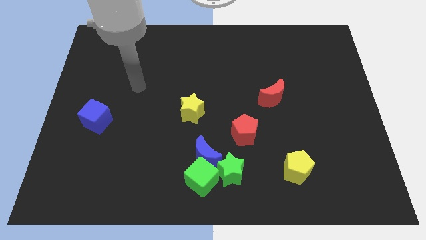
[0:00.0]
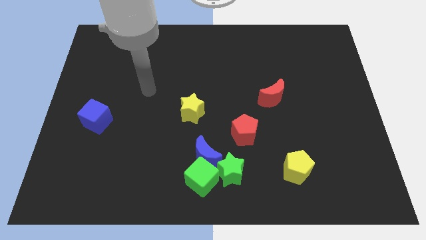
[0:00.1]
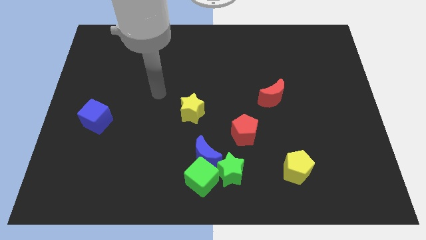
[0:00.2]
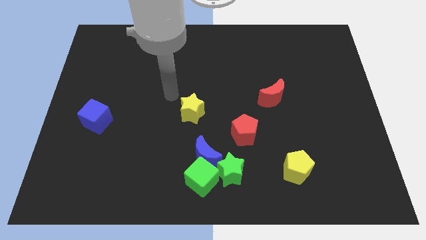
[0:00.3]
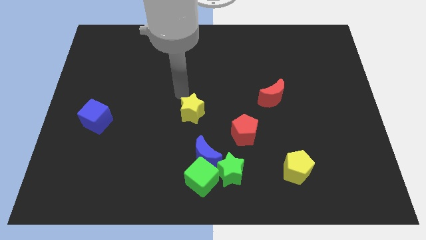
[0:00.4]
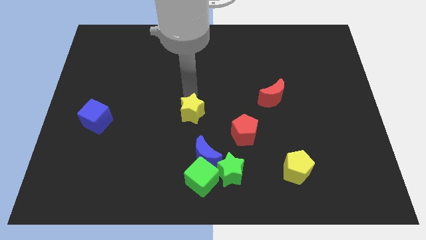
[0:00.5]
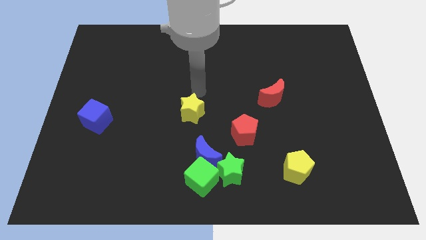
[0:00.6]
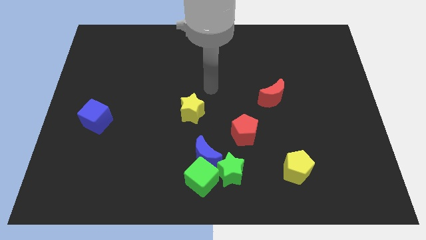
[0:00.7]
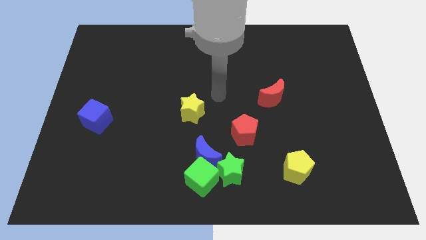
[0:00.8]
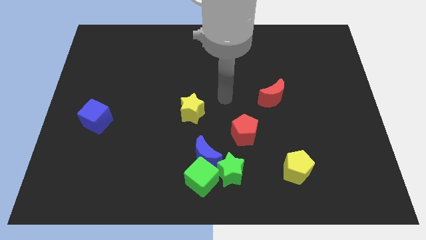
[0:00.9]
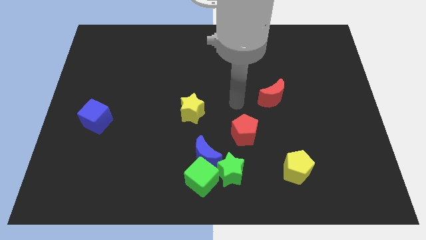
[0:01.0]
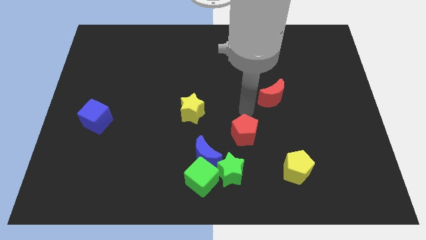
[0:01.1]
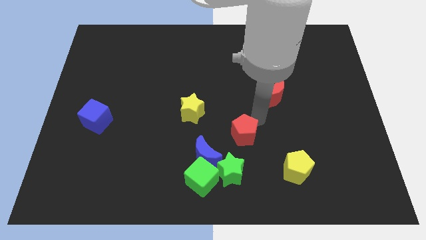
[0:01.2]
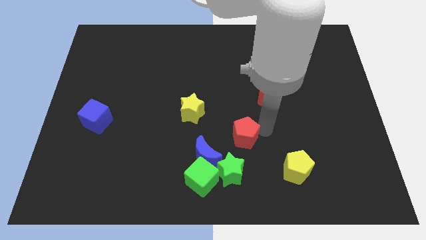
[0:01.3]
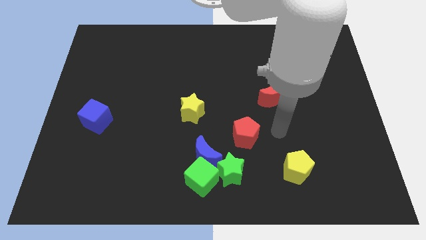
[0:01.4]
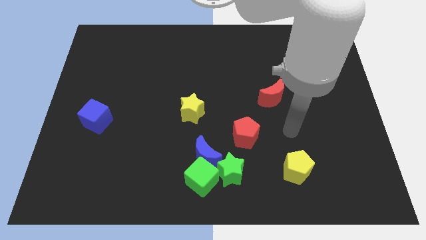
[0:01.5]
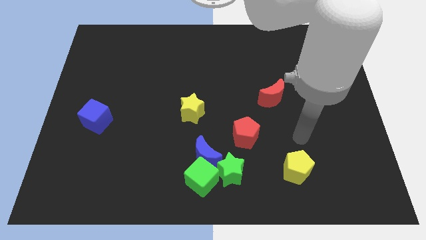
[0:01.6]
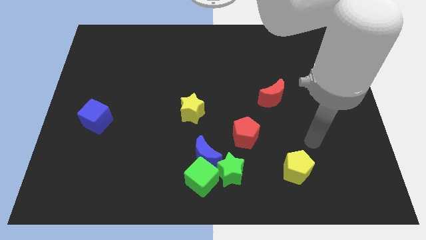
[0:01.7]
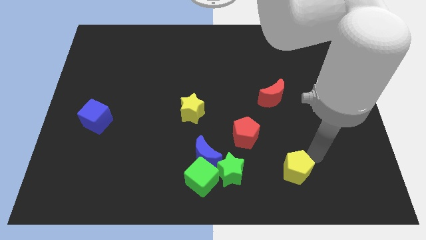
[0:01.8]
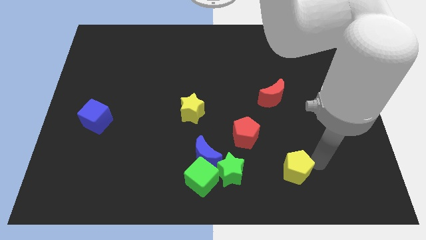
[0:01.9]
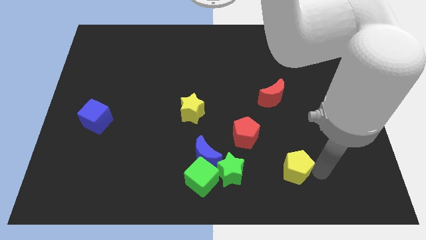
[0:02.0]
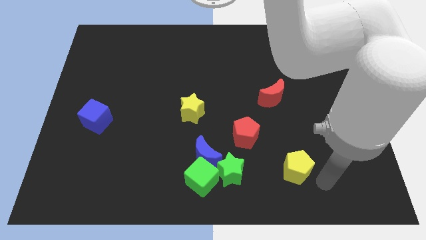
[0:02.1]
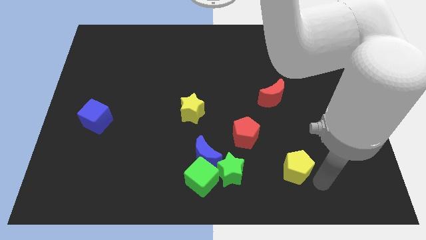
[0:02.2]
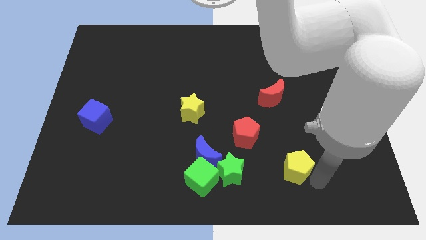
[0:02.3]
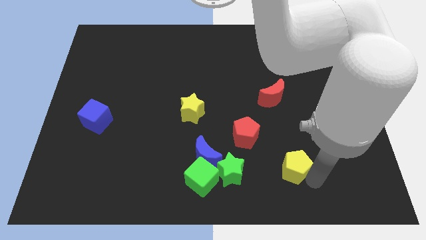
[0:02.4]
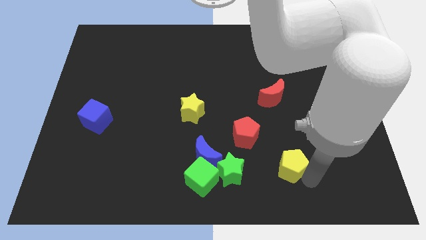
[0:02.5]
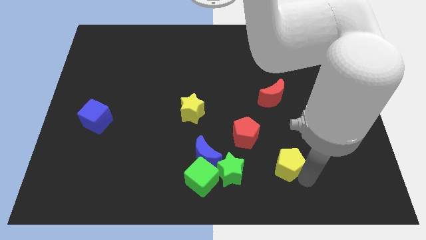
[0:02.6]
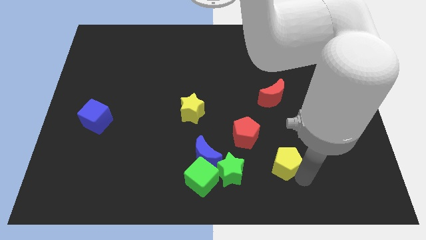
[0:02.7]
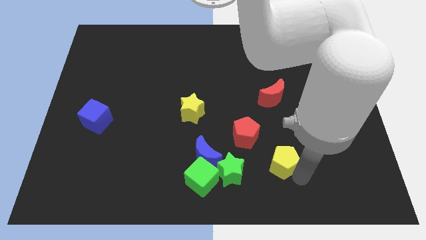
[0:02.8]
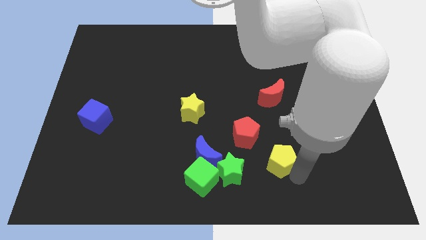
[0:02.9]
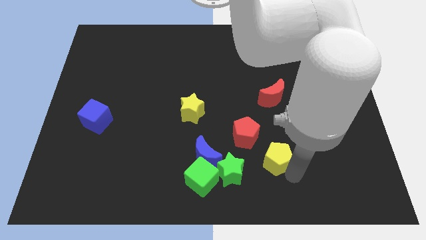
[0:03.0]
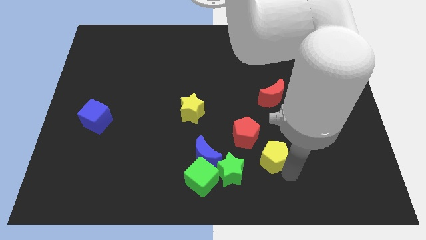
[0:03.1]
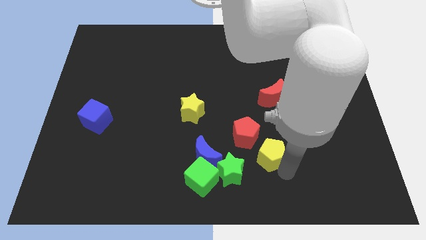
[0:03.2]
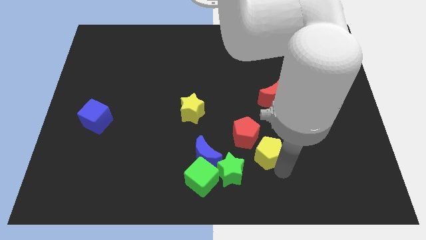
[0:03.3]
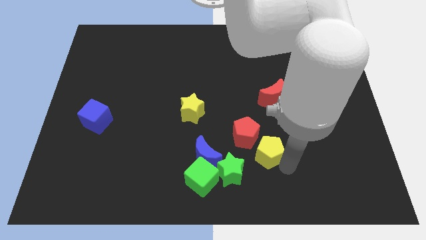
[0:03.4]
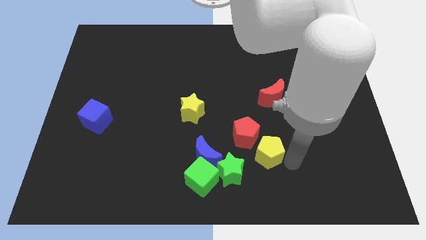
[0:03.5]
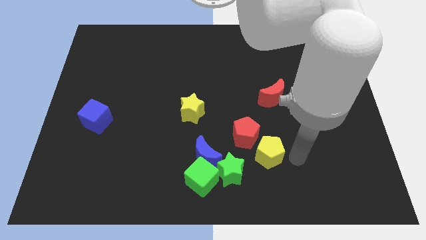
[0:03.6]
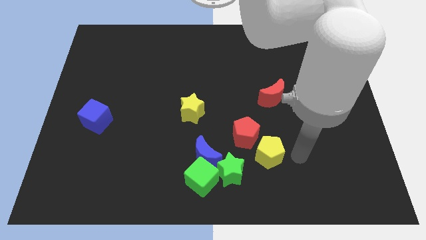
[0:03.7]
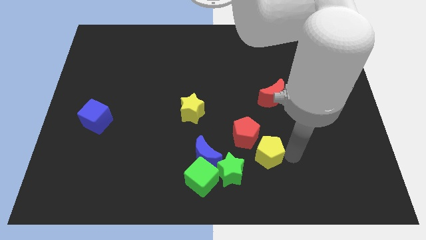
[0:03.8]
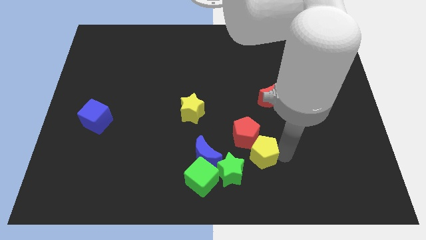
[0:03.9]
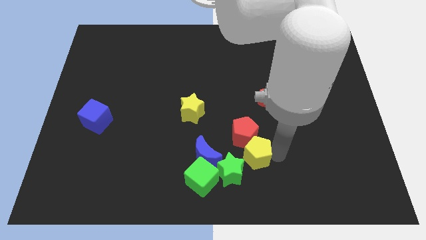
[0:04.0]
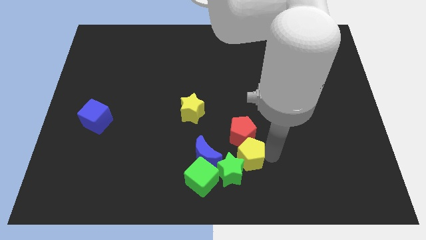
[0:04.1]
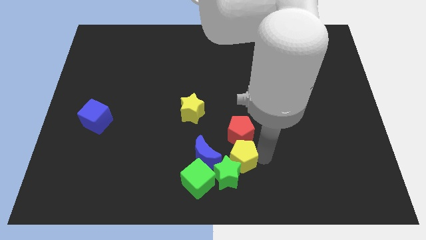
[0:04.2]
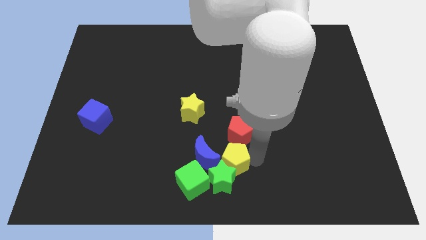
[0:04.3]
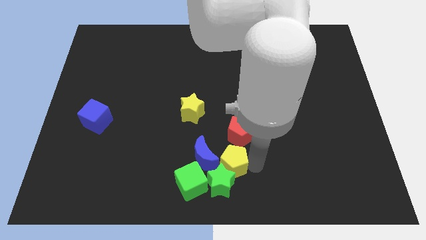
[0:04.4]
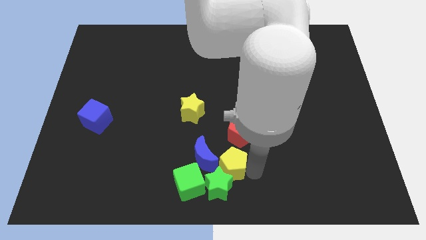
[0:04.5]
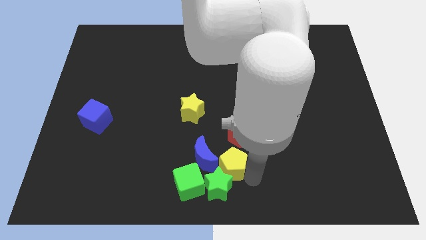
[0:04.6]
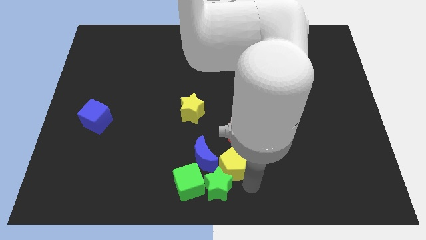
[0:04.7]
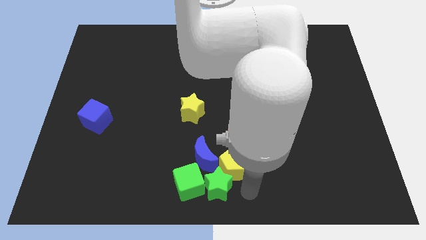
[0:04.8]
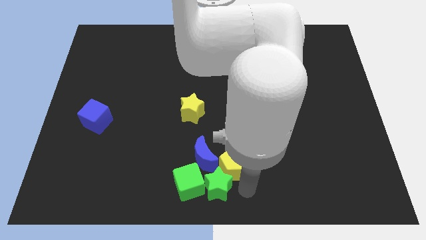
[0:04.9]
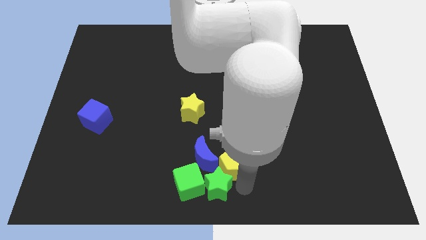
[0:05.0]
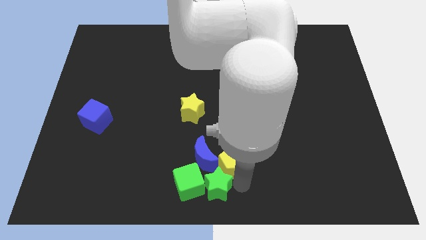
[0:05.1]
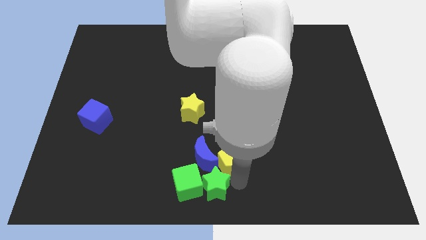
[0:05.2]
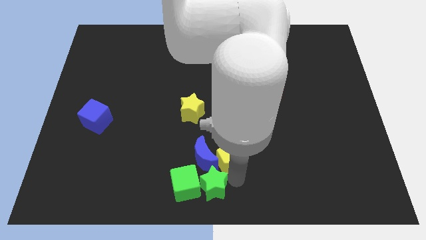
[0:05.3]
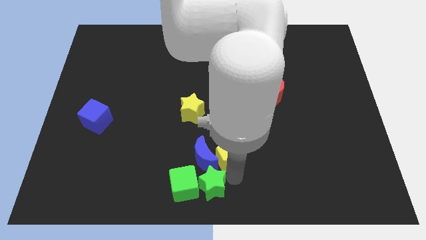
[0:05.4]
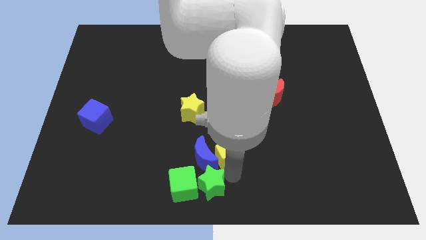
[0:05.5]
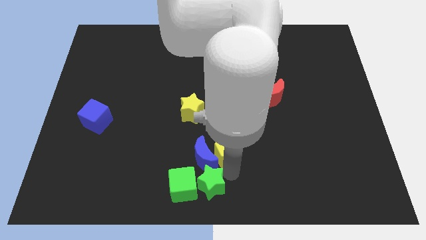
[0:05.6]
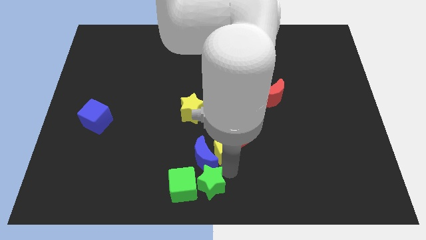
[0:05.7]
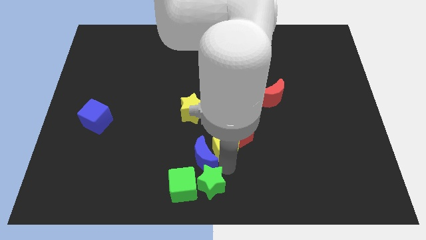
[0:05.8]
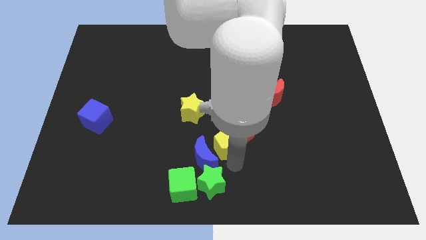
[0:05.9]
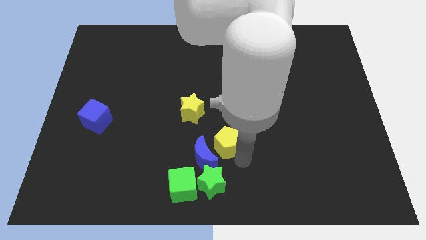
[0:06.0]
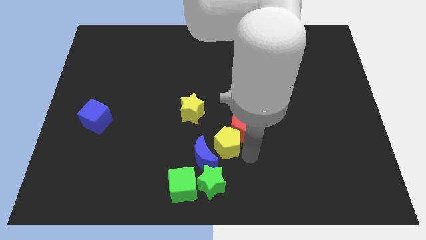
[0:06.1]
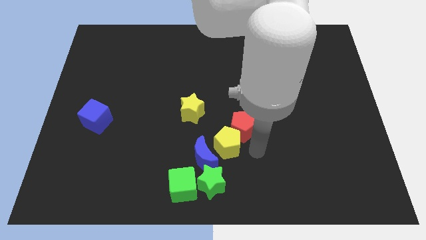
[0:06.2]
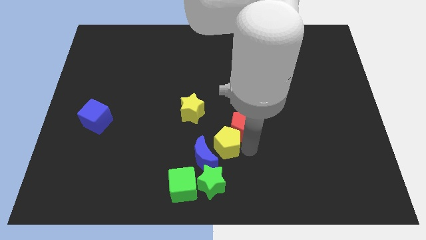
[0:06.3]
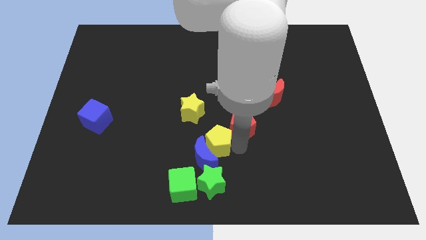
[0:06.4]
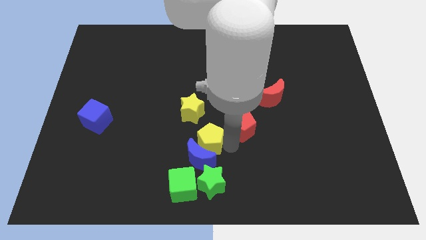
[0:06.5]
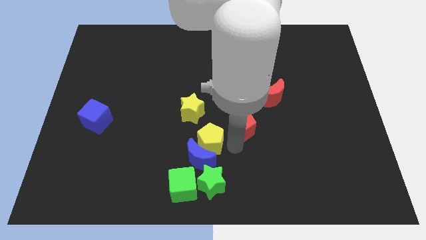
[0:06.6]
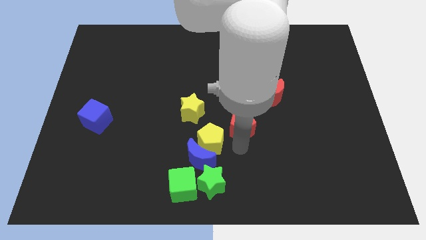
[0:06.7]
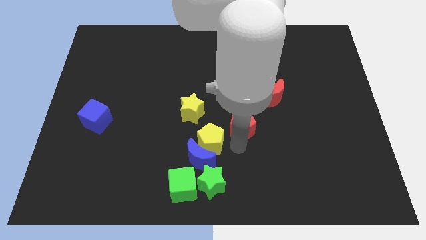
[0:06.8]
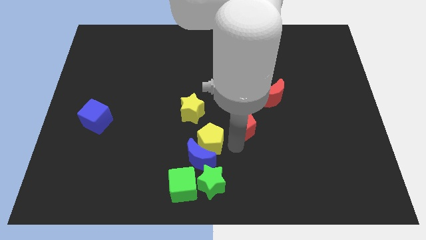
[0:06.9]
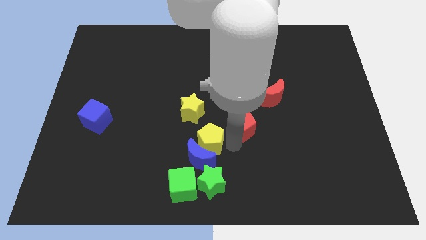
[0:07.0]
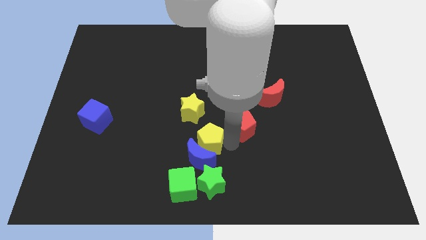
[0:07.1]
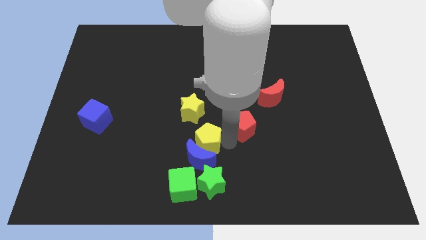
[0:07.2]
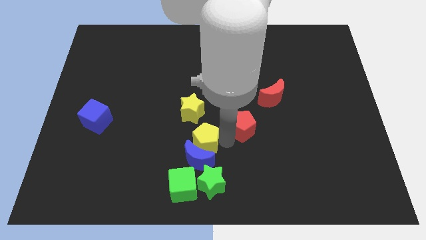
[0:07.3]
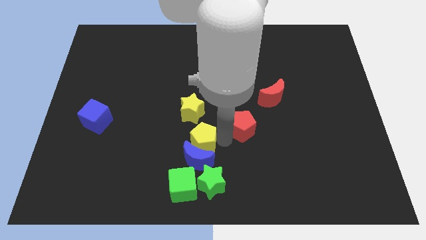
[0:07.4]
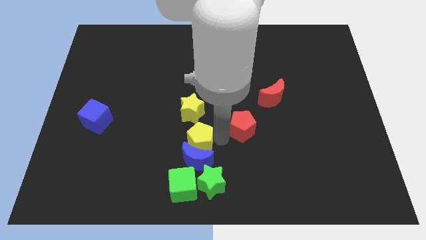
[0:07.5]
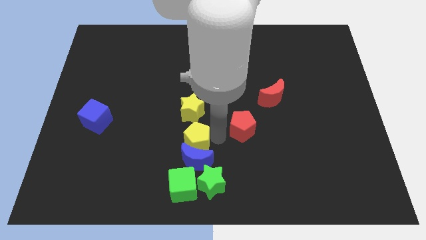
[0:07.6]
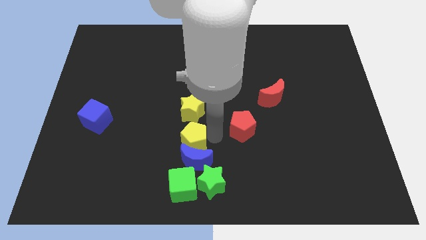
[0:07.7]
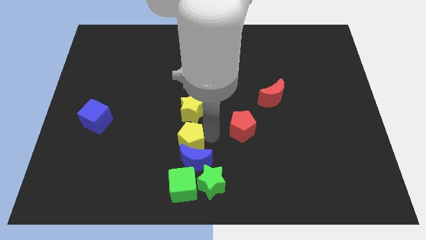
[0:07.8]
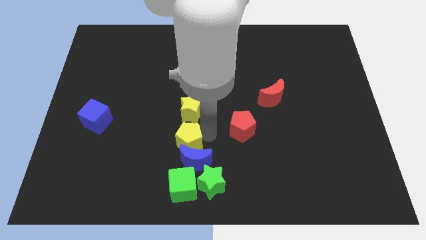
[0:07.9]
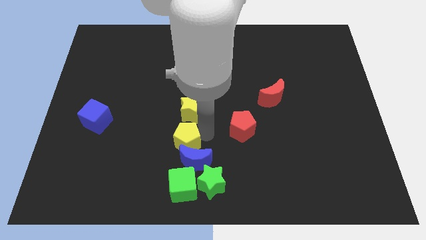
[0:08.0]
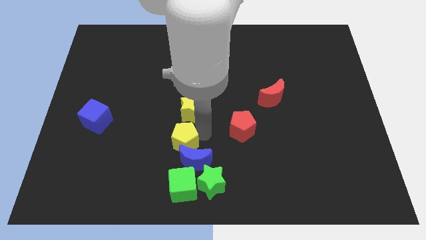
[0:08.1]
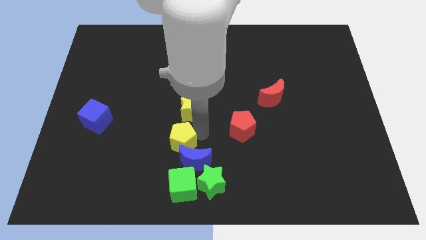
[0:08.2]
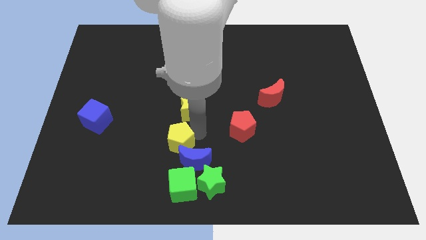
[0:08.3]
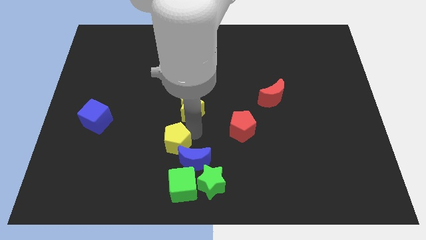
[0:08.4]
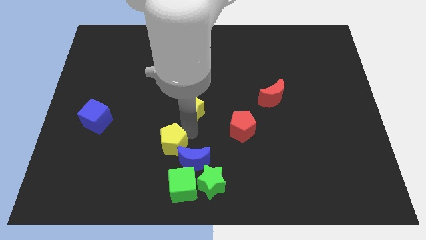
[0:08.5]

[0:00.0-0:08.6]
put the yellow pentagon just left of the blue moon
